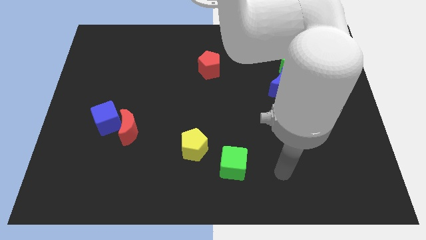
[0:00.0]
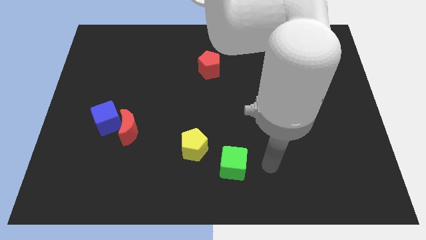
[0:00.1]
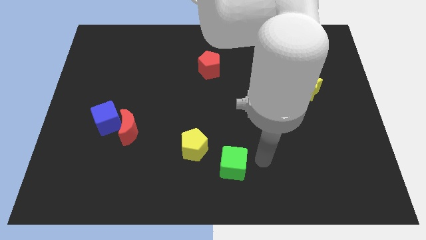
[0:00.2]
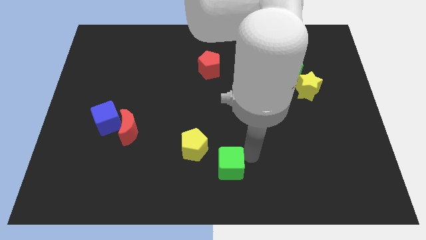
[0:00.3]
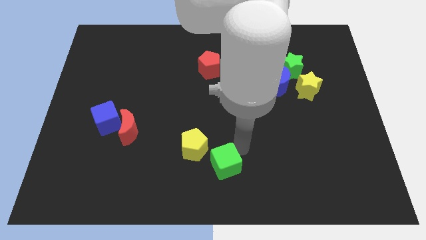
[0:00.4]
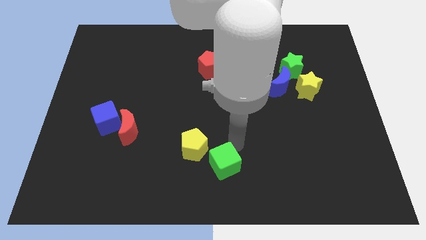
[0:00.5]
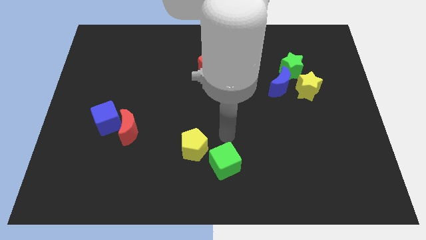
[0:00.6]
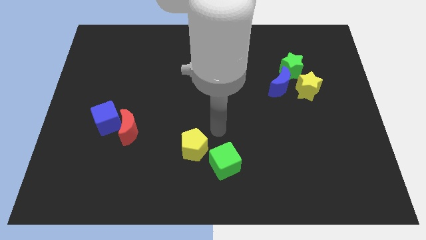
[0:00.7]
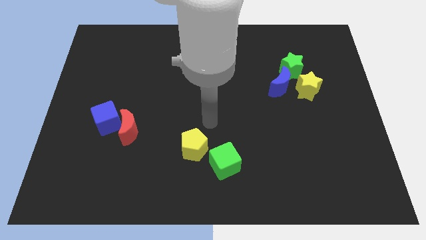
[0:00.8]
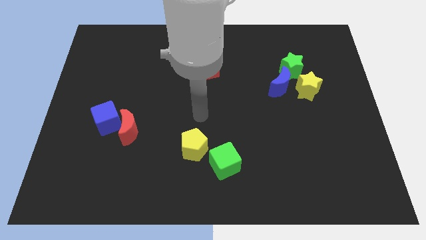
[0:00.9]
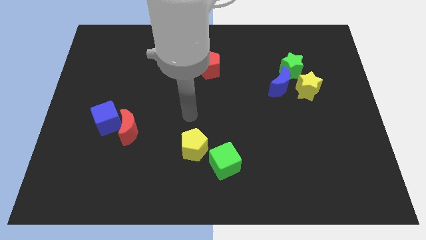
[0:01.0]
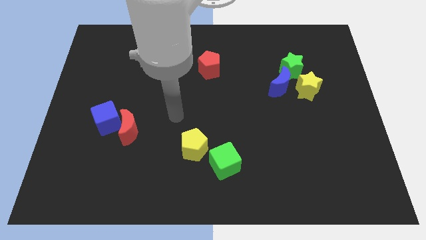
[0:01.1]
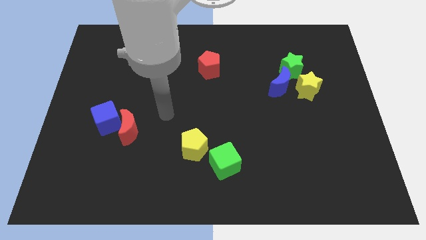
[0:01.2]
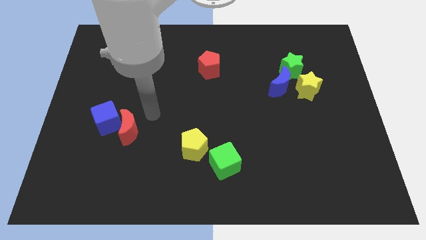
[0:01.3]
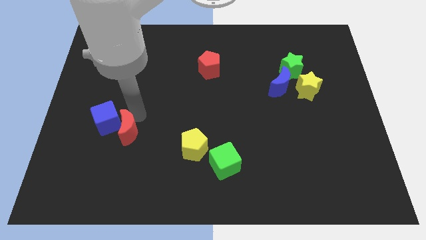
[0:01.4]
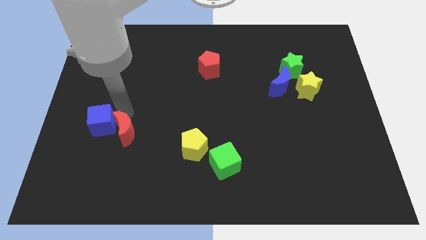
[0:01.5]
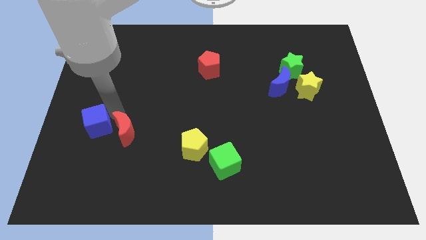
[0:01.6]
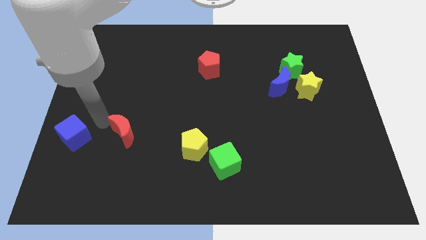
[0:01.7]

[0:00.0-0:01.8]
pull the red moon apart from the blue cube

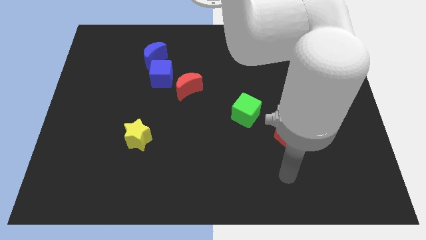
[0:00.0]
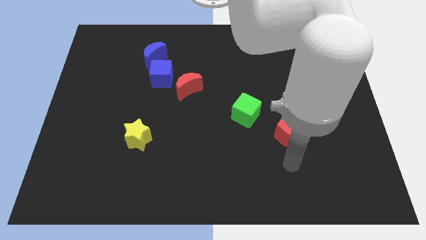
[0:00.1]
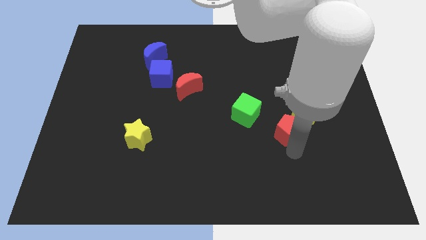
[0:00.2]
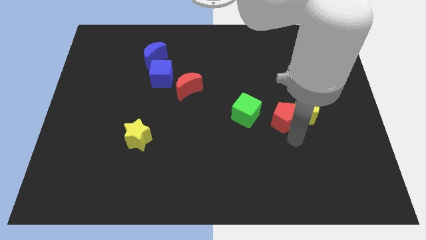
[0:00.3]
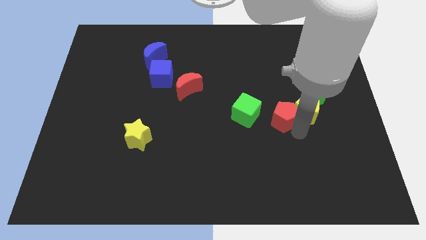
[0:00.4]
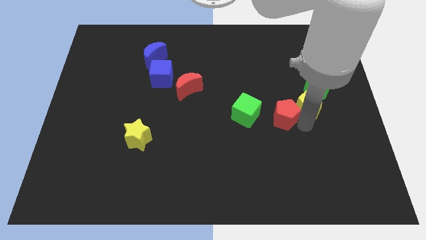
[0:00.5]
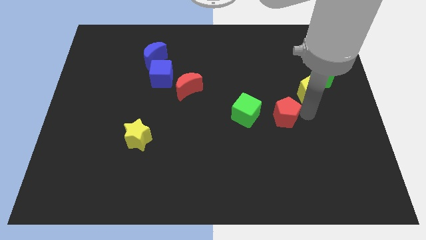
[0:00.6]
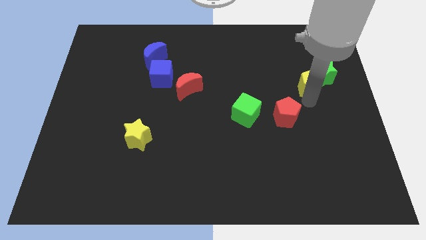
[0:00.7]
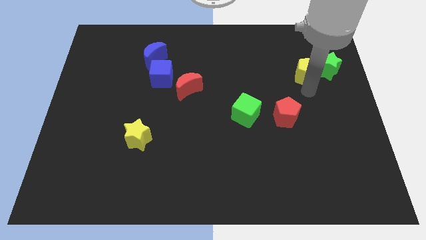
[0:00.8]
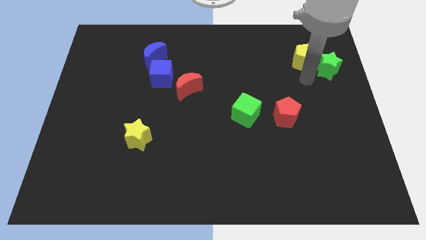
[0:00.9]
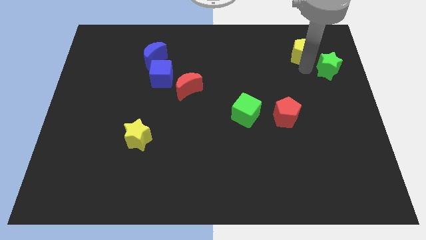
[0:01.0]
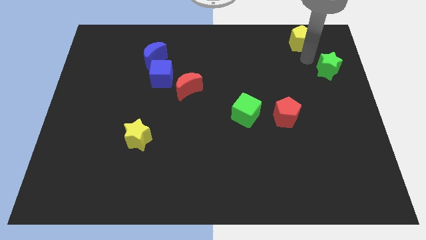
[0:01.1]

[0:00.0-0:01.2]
pull the green star apart from the yellow pentagon

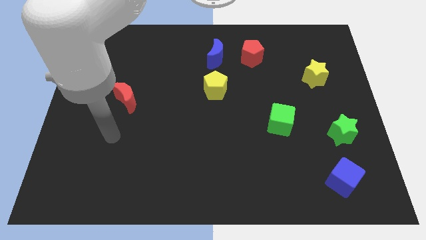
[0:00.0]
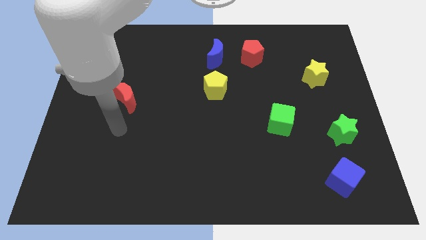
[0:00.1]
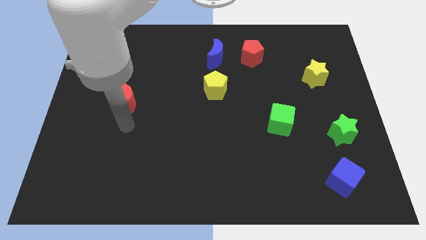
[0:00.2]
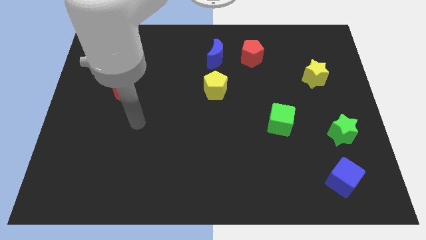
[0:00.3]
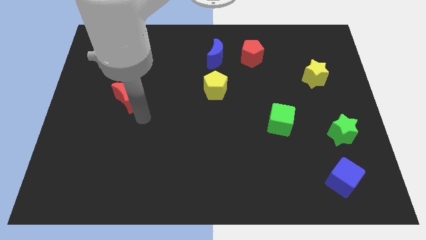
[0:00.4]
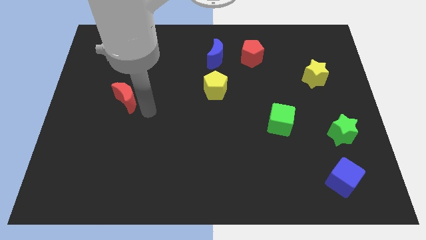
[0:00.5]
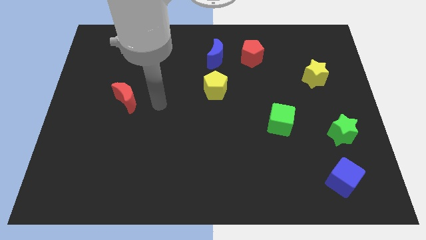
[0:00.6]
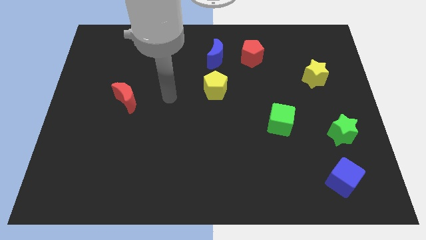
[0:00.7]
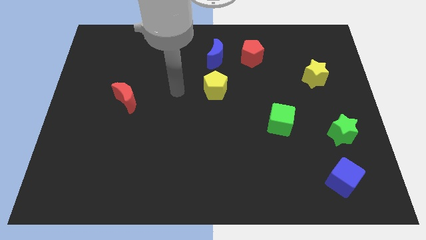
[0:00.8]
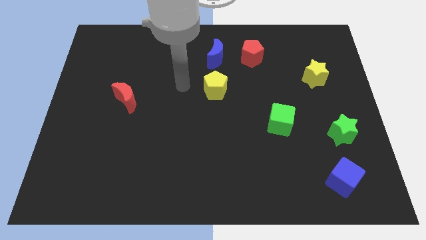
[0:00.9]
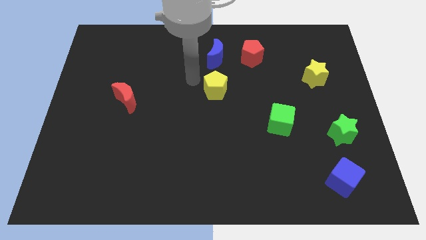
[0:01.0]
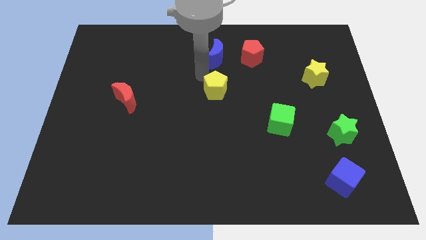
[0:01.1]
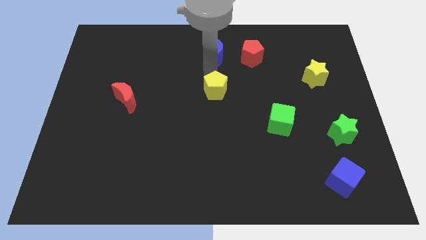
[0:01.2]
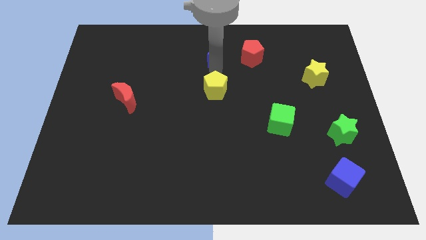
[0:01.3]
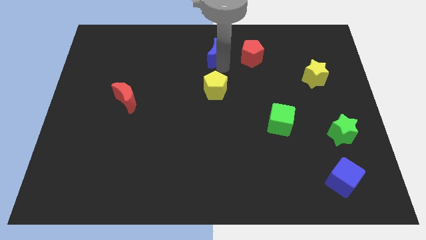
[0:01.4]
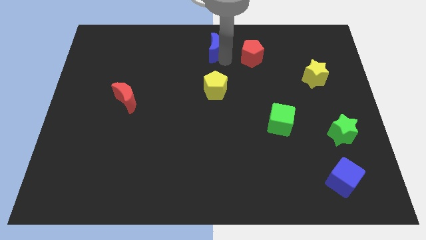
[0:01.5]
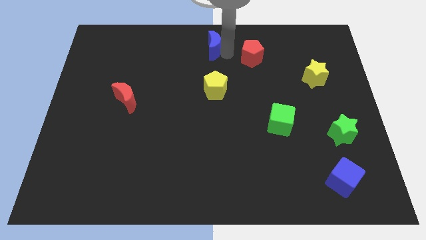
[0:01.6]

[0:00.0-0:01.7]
pull the red pentagon apart from the blue moon

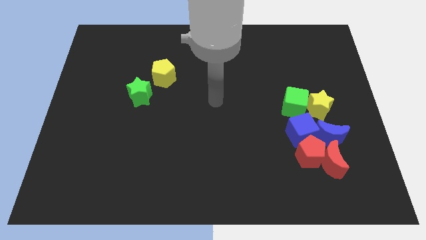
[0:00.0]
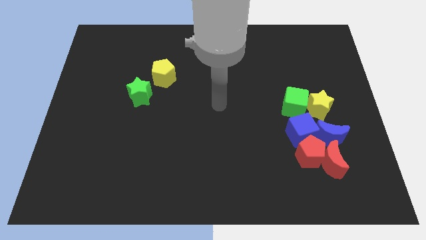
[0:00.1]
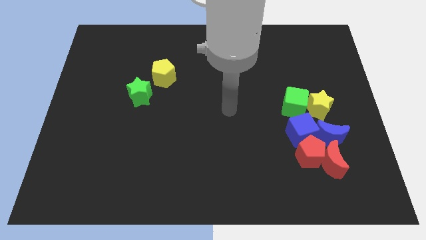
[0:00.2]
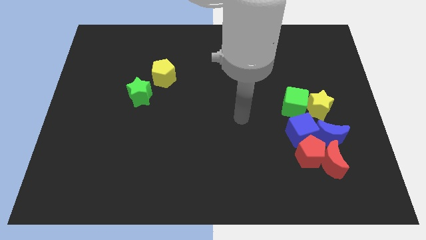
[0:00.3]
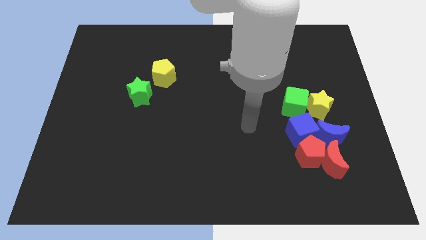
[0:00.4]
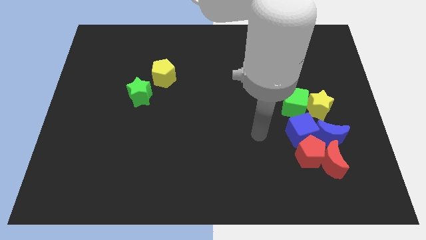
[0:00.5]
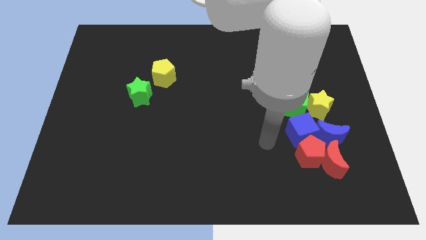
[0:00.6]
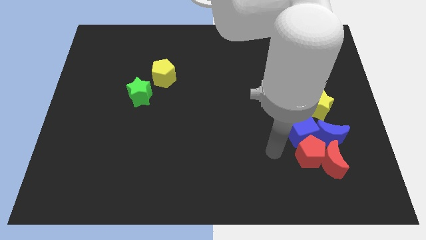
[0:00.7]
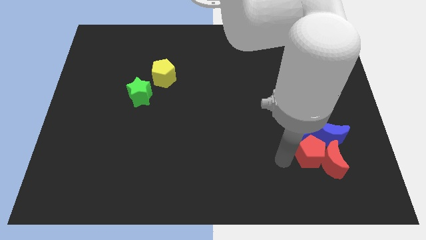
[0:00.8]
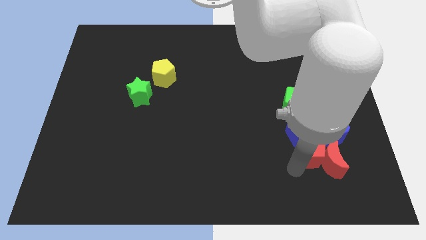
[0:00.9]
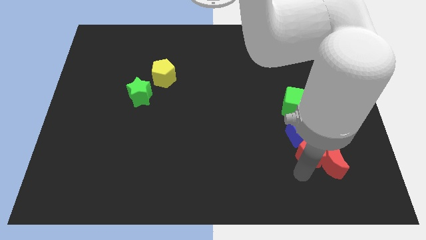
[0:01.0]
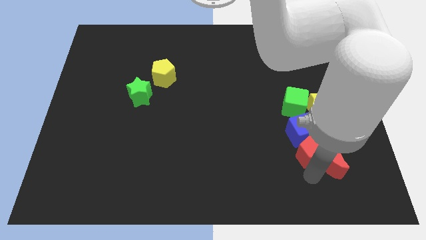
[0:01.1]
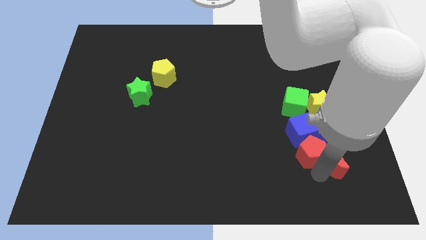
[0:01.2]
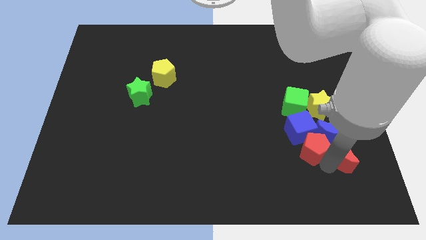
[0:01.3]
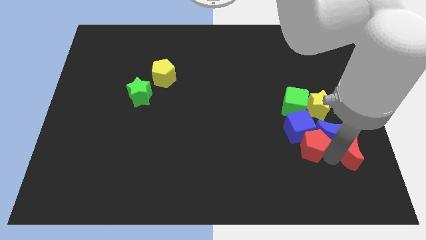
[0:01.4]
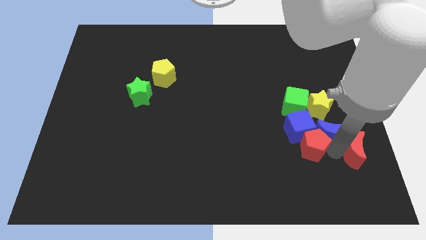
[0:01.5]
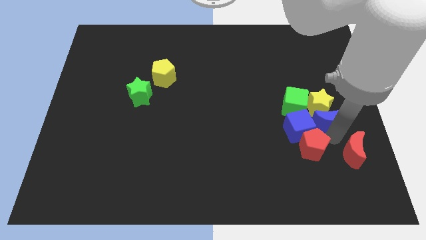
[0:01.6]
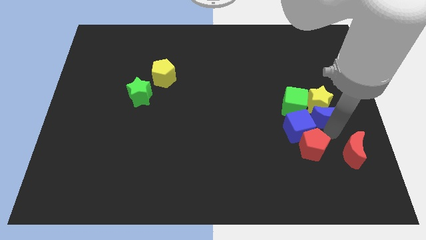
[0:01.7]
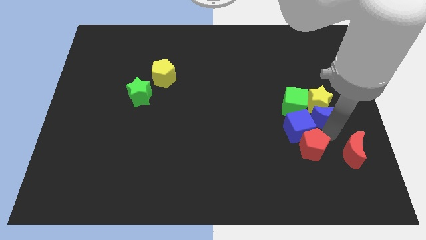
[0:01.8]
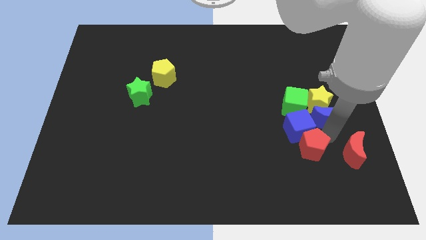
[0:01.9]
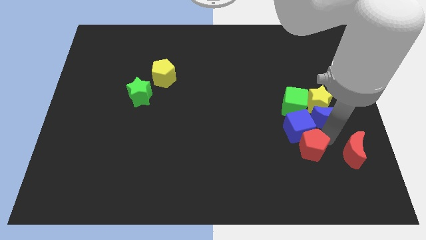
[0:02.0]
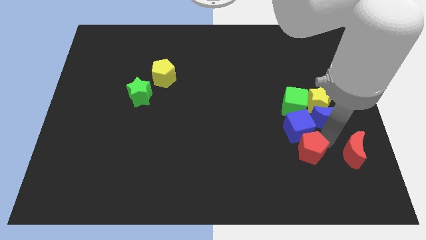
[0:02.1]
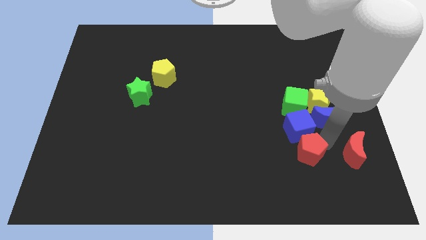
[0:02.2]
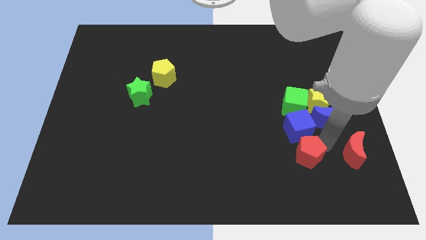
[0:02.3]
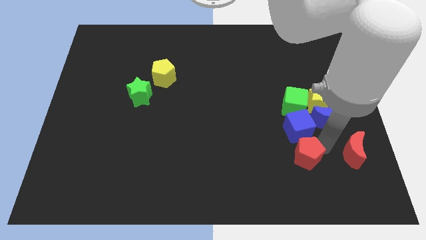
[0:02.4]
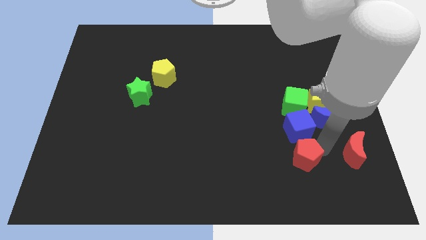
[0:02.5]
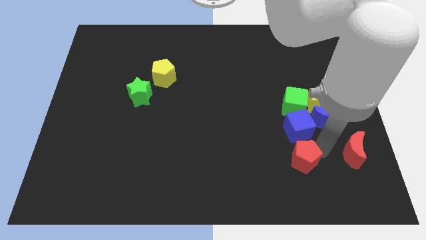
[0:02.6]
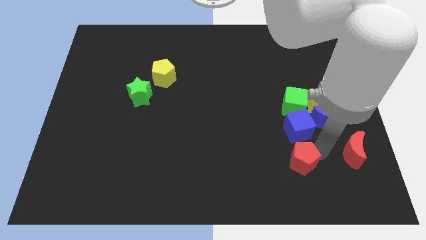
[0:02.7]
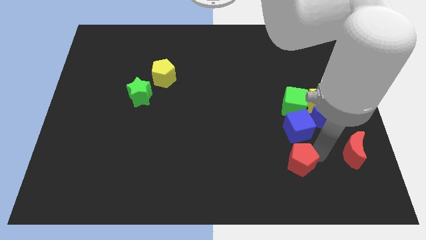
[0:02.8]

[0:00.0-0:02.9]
pull the red pentagon apart from the group of blocks

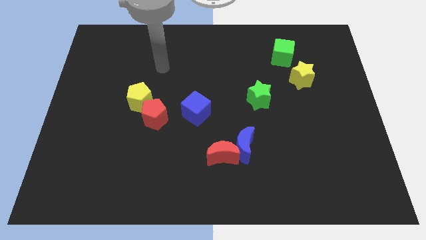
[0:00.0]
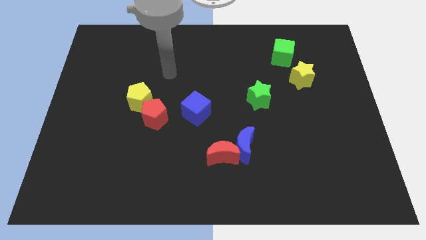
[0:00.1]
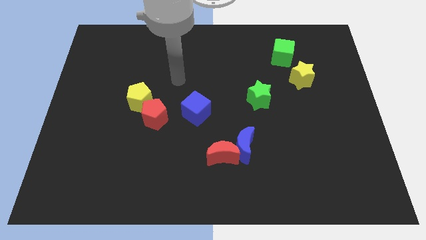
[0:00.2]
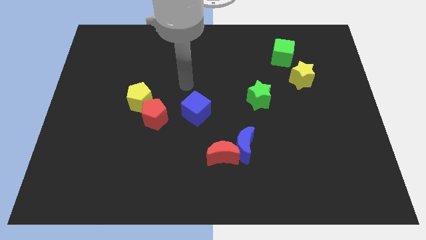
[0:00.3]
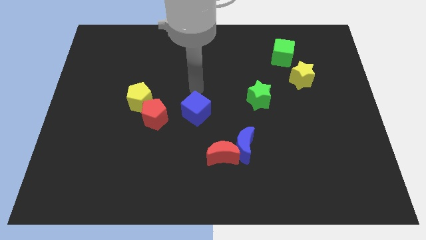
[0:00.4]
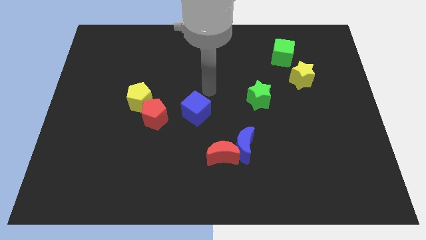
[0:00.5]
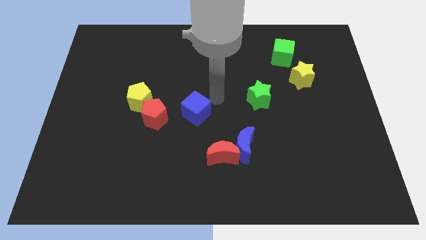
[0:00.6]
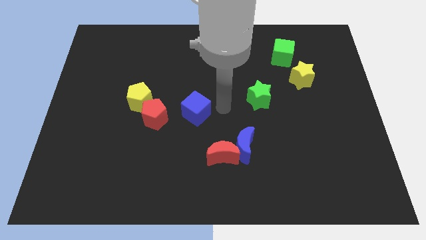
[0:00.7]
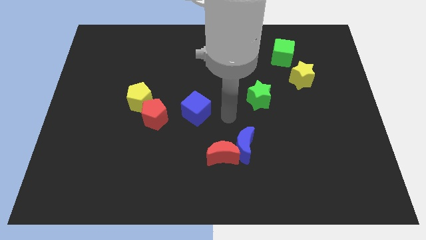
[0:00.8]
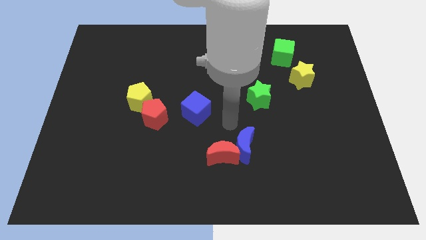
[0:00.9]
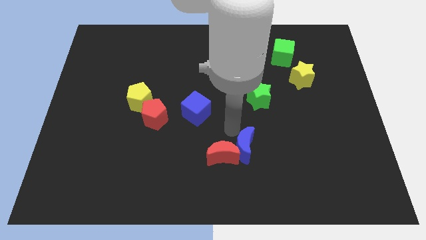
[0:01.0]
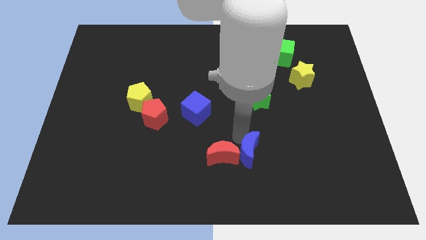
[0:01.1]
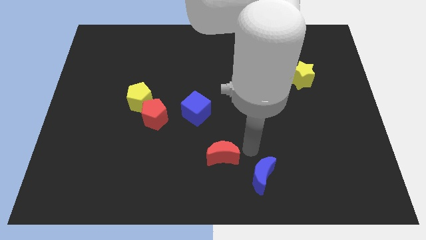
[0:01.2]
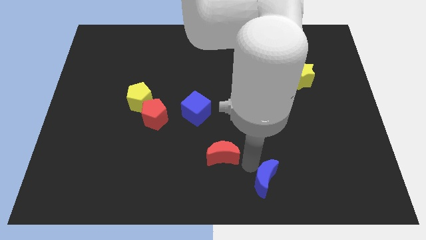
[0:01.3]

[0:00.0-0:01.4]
move the red moon away from the blue moon

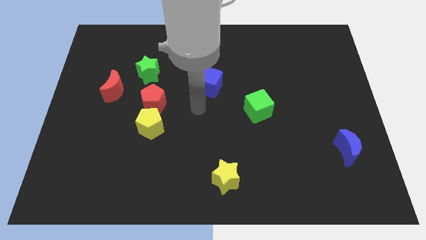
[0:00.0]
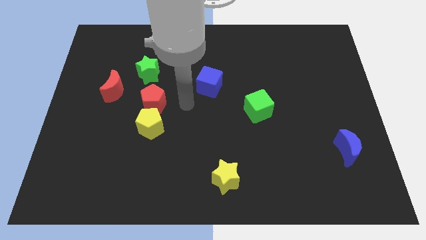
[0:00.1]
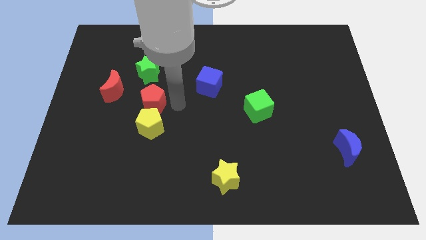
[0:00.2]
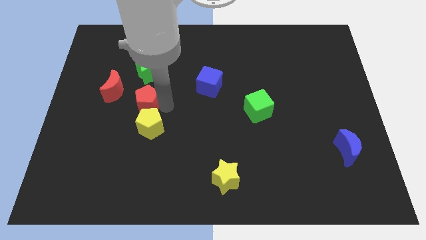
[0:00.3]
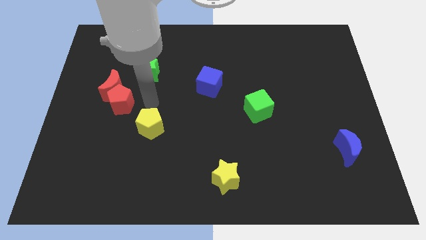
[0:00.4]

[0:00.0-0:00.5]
pull the yellow pentagon apart from the red pentagon
